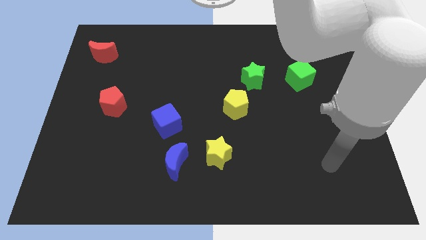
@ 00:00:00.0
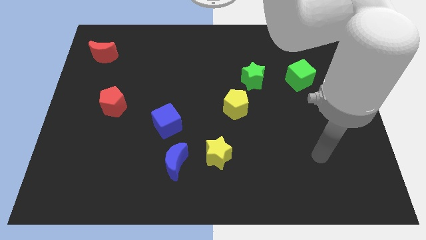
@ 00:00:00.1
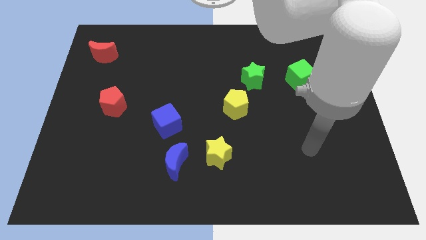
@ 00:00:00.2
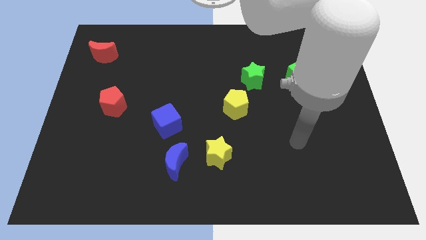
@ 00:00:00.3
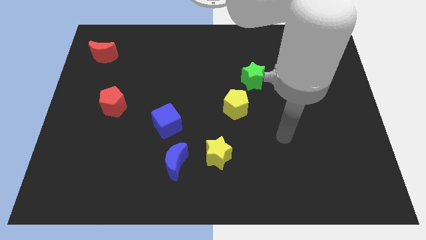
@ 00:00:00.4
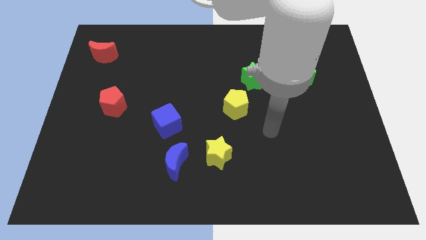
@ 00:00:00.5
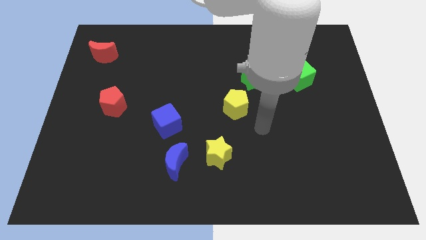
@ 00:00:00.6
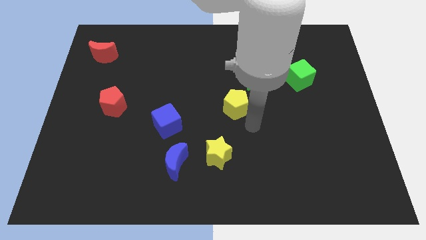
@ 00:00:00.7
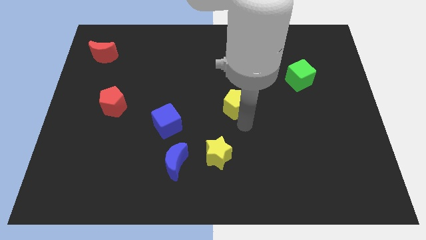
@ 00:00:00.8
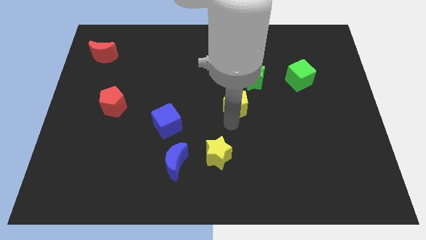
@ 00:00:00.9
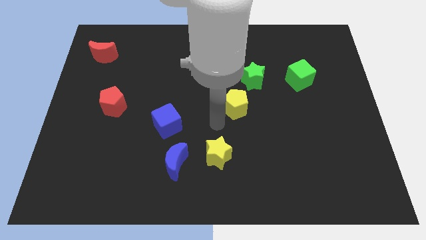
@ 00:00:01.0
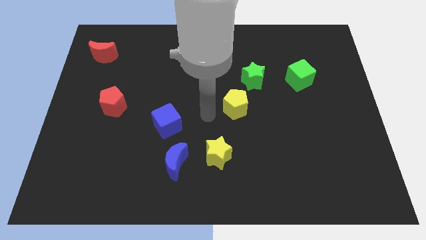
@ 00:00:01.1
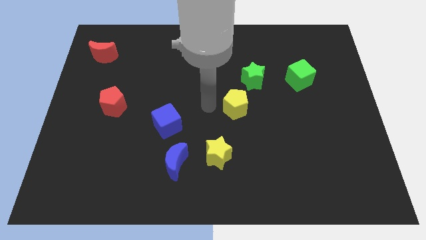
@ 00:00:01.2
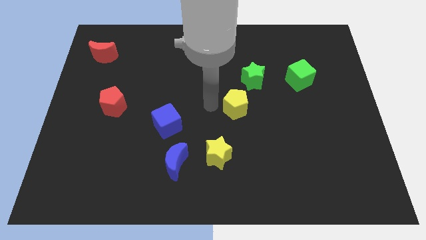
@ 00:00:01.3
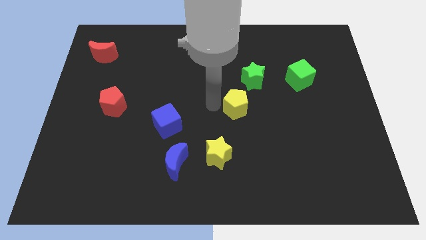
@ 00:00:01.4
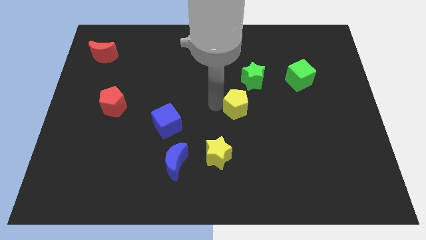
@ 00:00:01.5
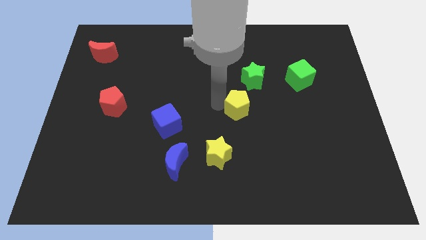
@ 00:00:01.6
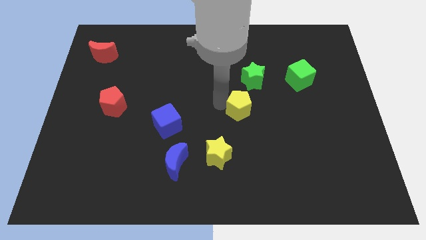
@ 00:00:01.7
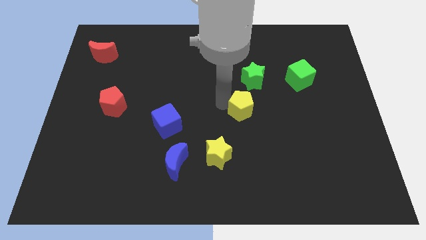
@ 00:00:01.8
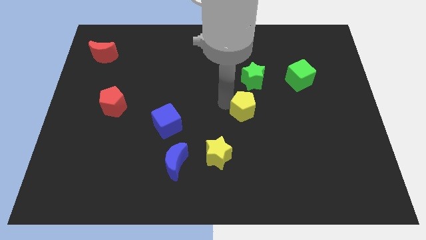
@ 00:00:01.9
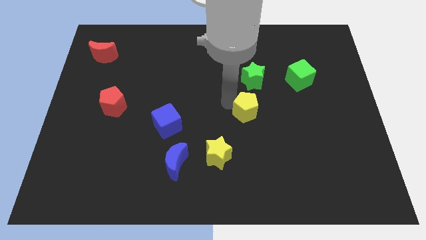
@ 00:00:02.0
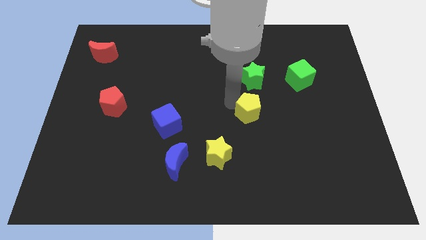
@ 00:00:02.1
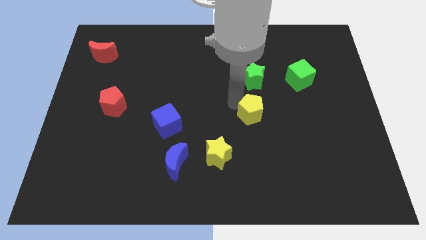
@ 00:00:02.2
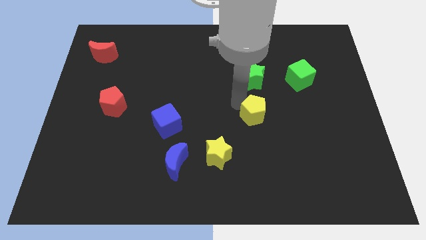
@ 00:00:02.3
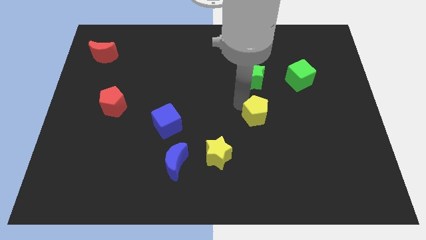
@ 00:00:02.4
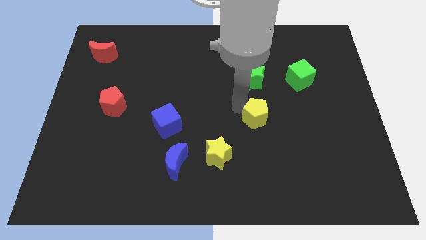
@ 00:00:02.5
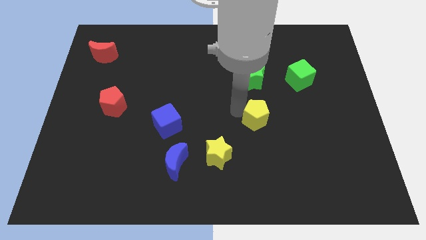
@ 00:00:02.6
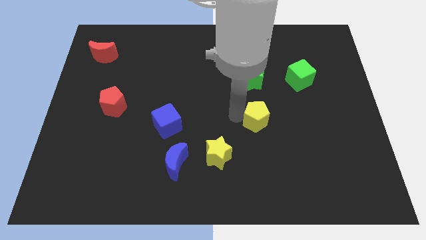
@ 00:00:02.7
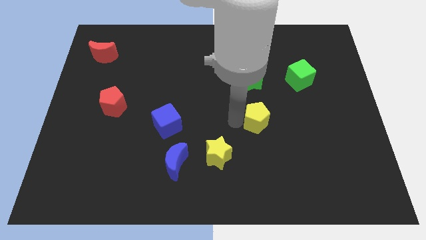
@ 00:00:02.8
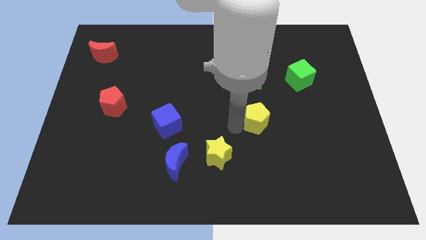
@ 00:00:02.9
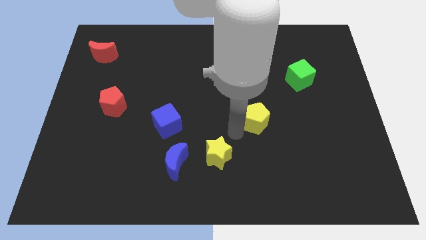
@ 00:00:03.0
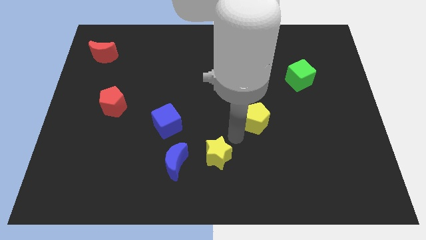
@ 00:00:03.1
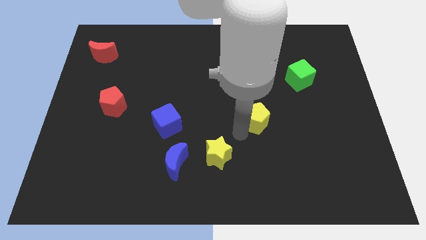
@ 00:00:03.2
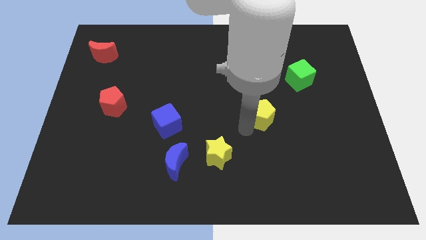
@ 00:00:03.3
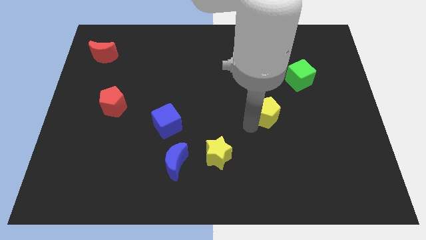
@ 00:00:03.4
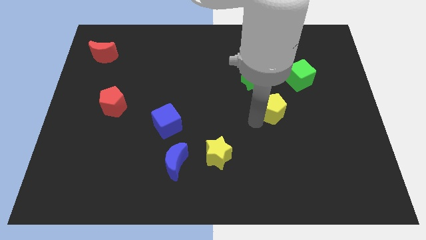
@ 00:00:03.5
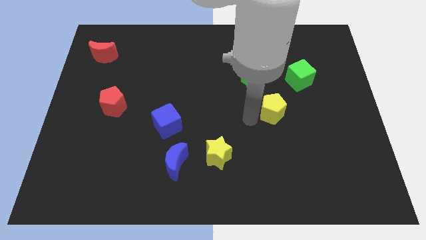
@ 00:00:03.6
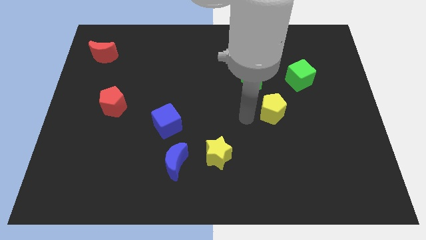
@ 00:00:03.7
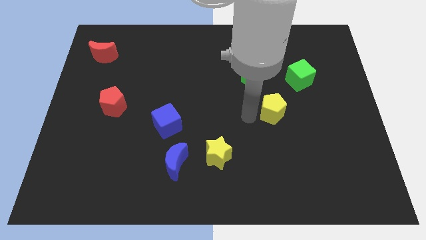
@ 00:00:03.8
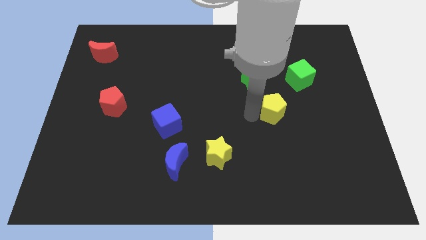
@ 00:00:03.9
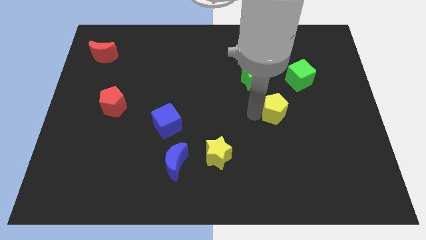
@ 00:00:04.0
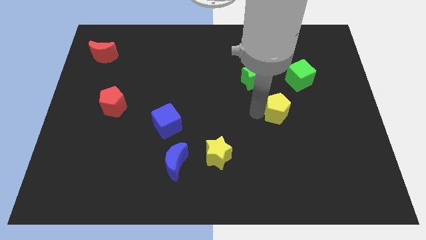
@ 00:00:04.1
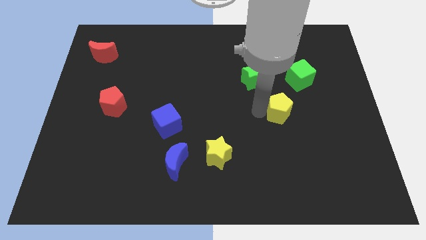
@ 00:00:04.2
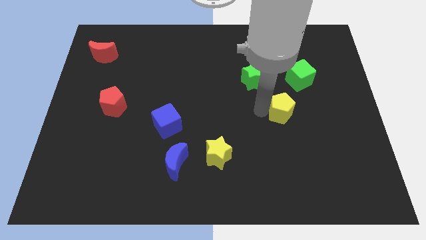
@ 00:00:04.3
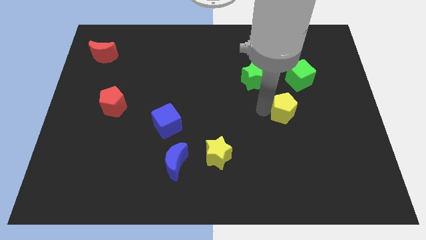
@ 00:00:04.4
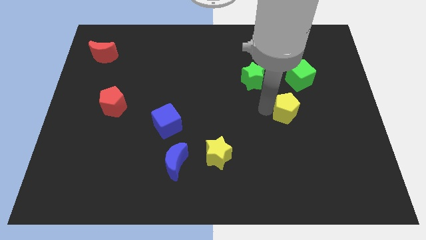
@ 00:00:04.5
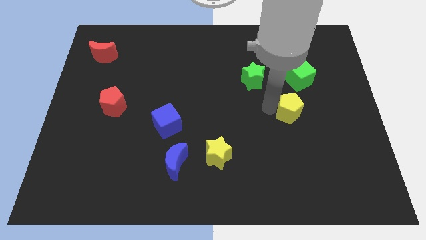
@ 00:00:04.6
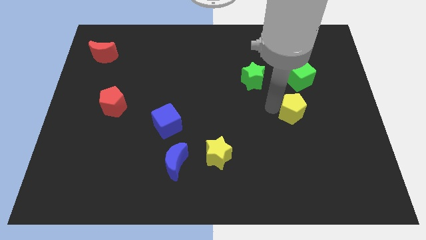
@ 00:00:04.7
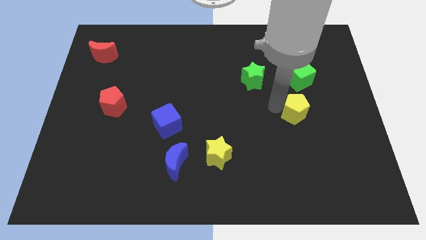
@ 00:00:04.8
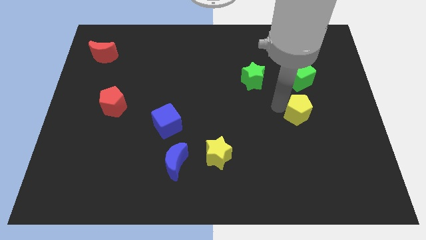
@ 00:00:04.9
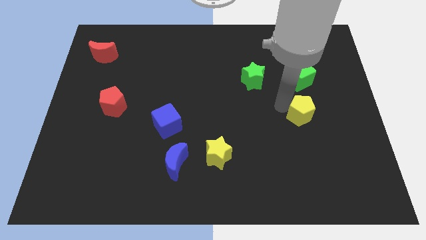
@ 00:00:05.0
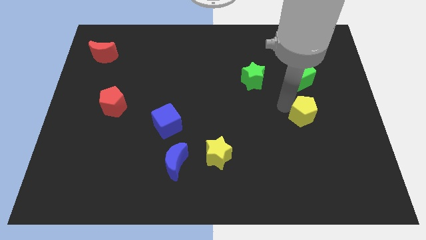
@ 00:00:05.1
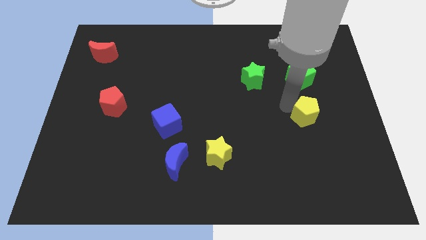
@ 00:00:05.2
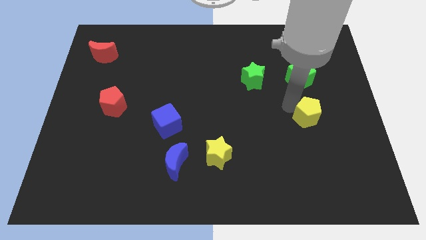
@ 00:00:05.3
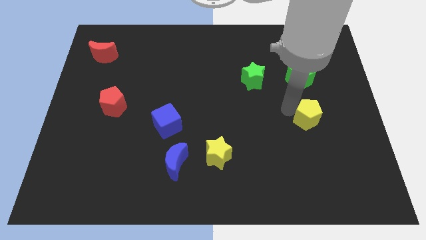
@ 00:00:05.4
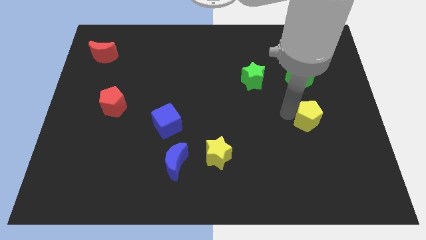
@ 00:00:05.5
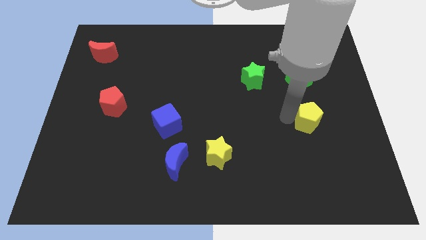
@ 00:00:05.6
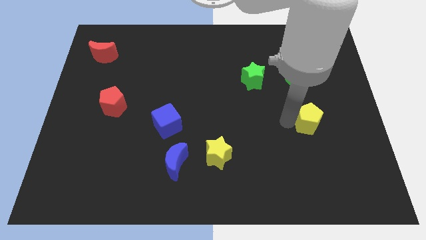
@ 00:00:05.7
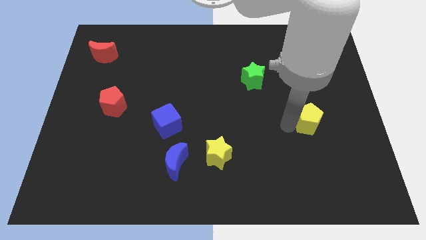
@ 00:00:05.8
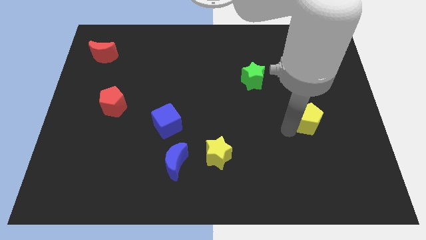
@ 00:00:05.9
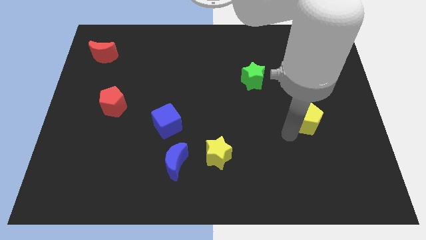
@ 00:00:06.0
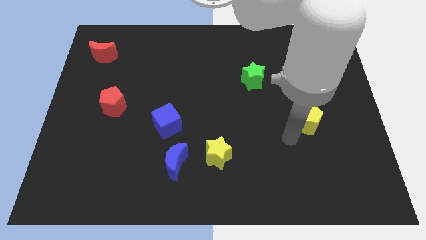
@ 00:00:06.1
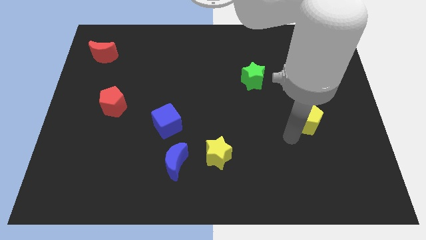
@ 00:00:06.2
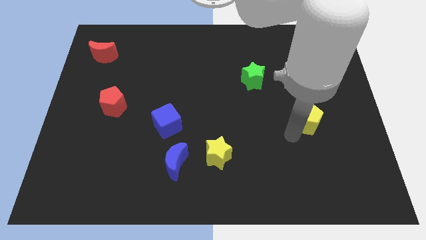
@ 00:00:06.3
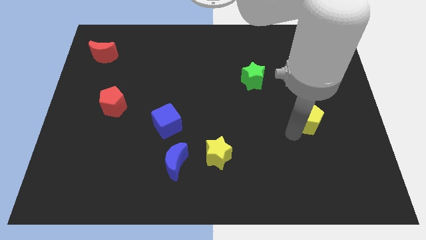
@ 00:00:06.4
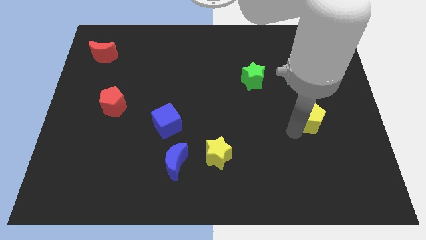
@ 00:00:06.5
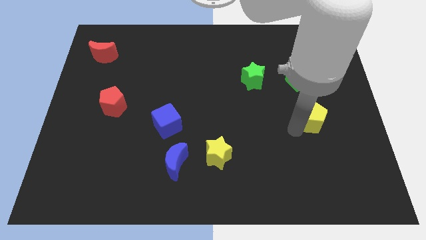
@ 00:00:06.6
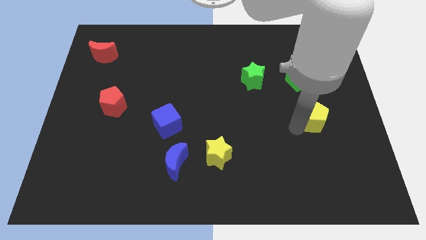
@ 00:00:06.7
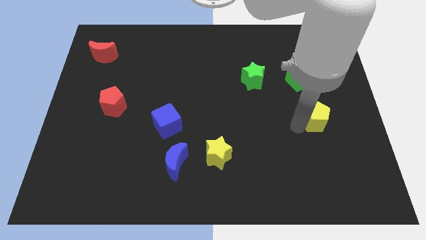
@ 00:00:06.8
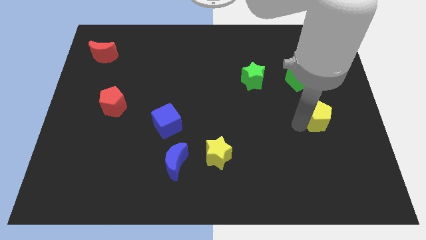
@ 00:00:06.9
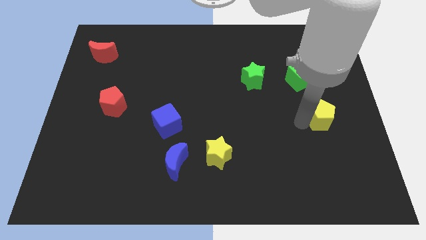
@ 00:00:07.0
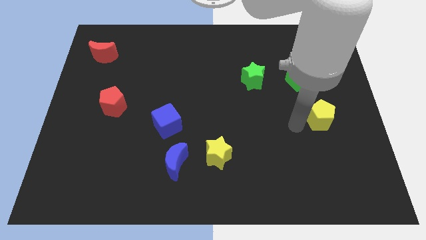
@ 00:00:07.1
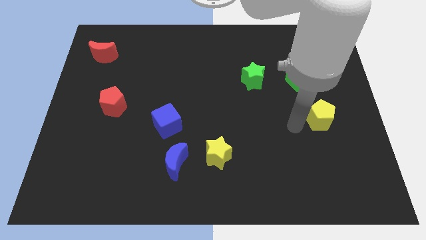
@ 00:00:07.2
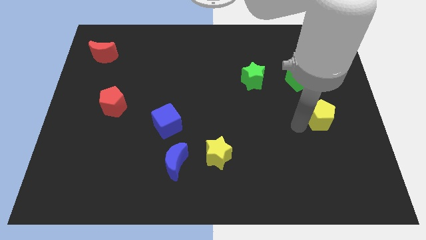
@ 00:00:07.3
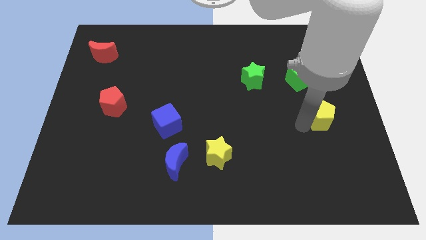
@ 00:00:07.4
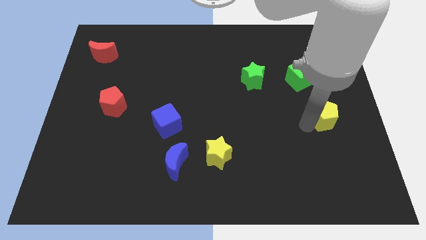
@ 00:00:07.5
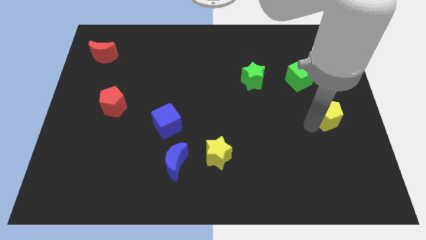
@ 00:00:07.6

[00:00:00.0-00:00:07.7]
slide the yellow pentagon to the right side of the board
